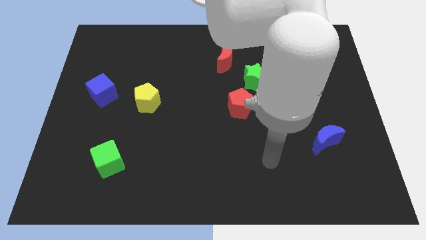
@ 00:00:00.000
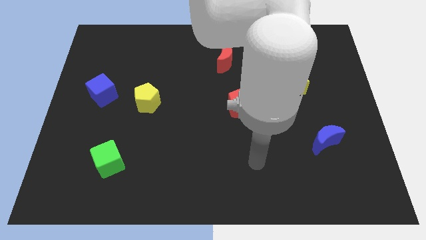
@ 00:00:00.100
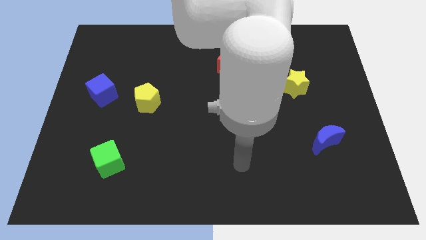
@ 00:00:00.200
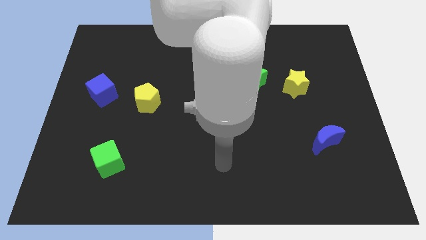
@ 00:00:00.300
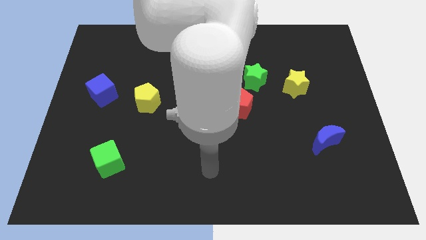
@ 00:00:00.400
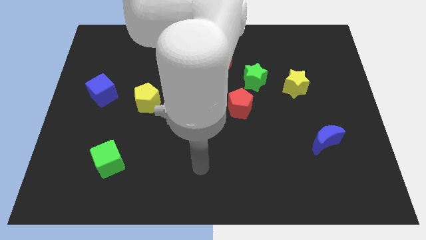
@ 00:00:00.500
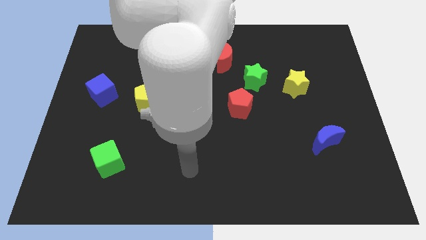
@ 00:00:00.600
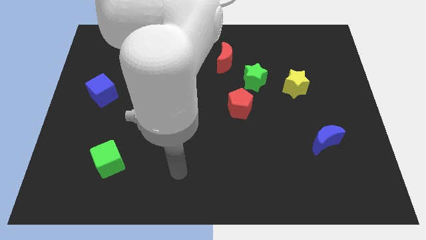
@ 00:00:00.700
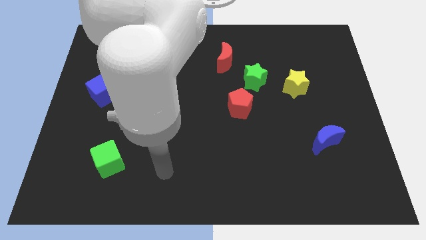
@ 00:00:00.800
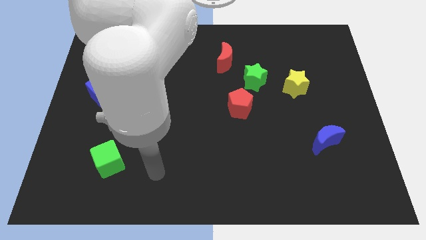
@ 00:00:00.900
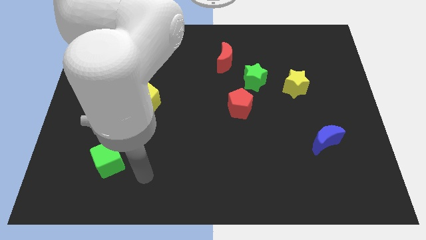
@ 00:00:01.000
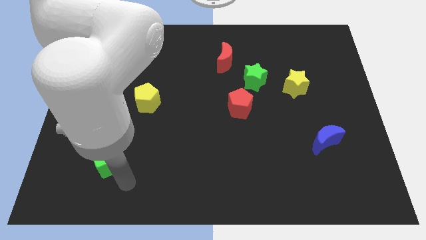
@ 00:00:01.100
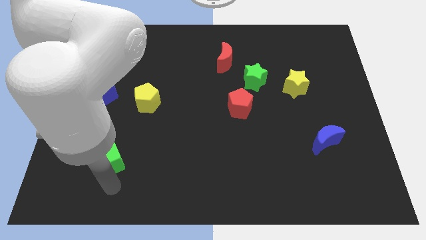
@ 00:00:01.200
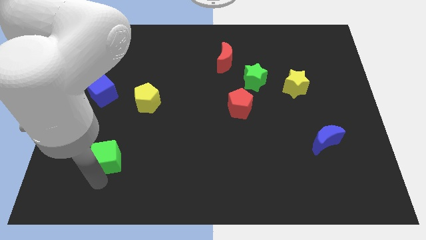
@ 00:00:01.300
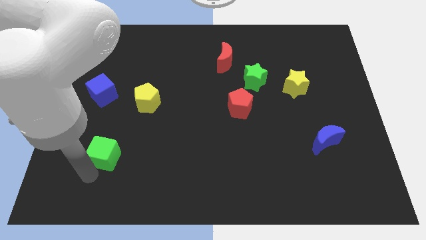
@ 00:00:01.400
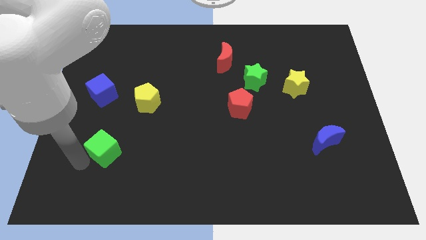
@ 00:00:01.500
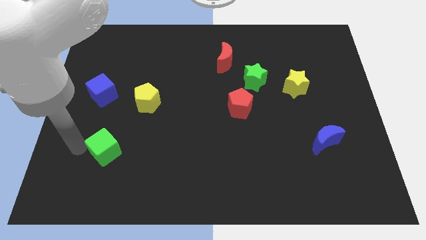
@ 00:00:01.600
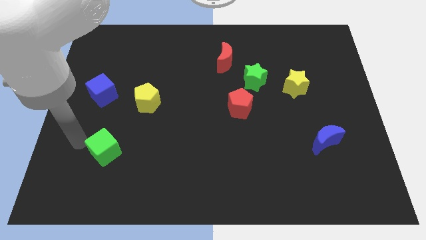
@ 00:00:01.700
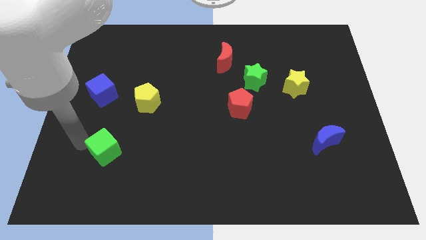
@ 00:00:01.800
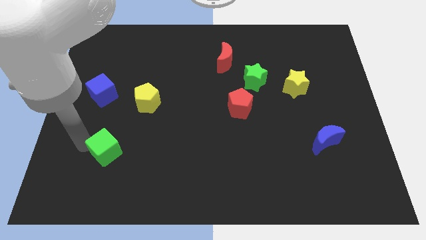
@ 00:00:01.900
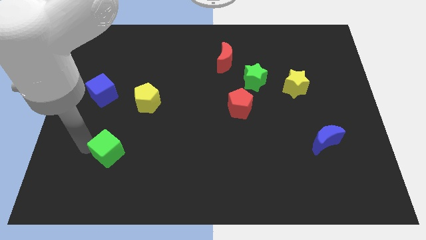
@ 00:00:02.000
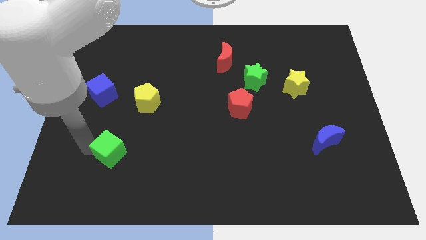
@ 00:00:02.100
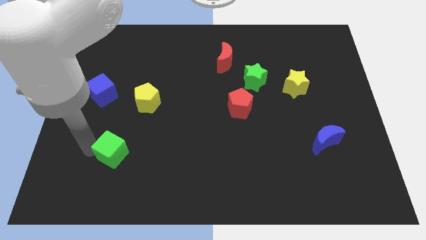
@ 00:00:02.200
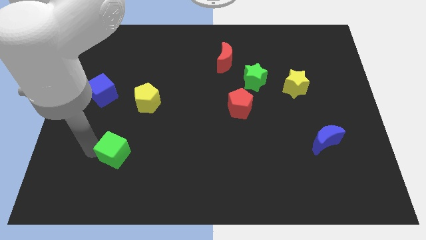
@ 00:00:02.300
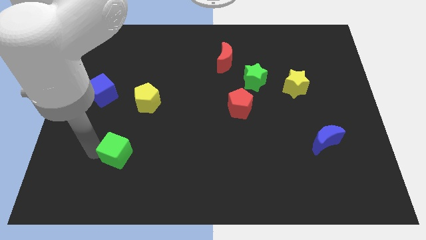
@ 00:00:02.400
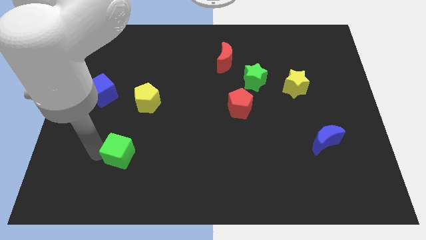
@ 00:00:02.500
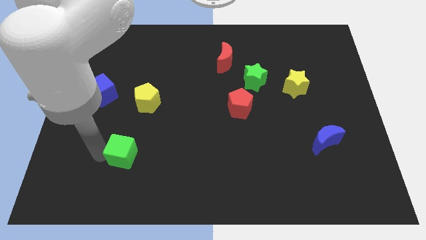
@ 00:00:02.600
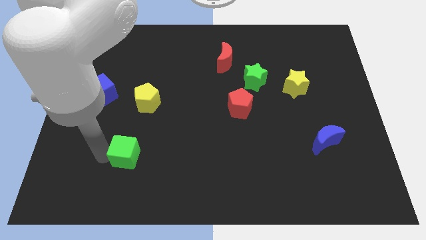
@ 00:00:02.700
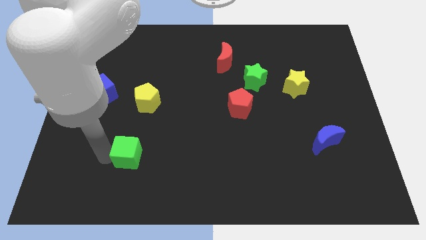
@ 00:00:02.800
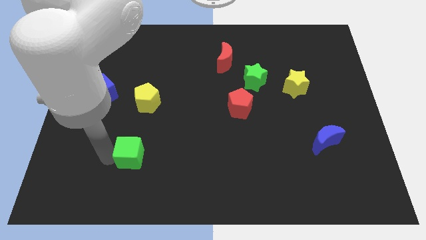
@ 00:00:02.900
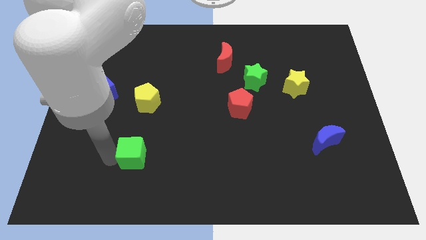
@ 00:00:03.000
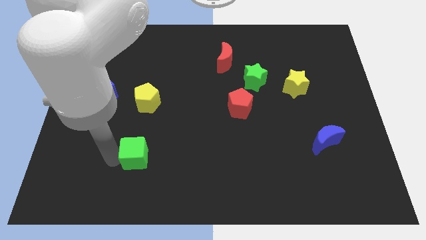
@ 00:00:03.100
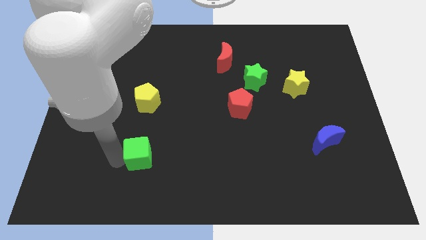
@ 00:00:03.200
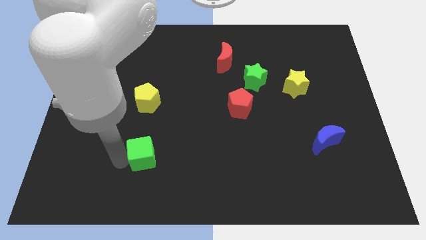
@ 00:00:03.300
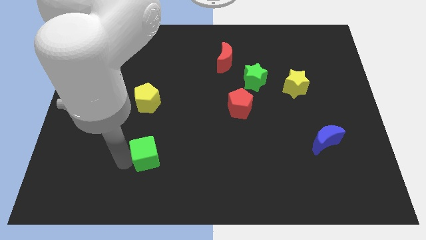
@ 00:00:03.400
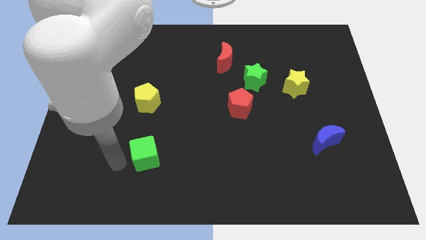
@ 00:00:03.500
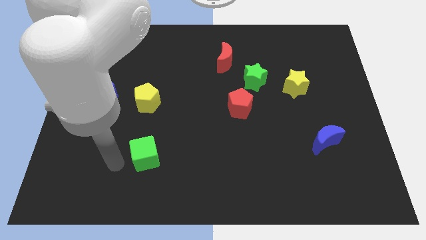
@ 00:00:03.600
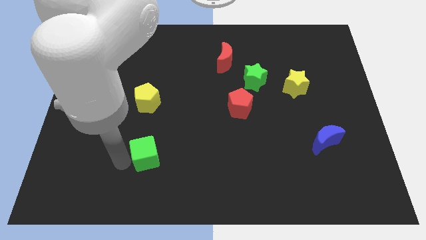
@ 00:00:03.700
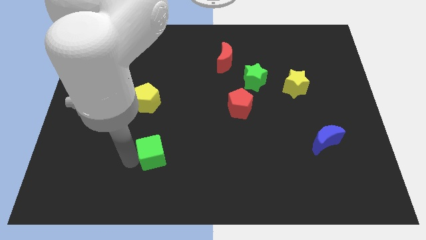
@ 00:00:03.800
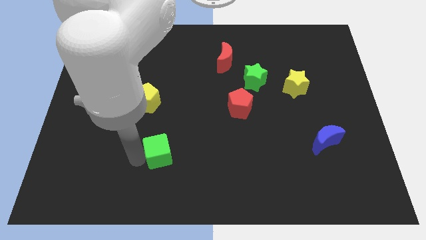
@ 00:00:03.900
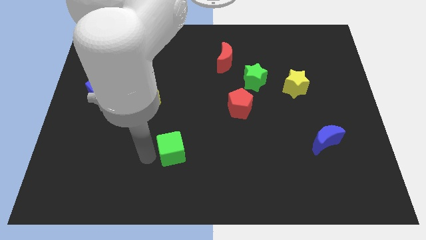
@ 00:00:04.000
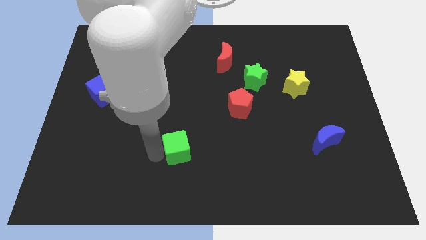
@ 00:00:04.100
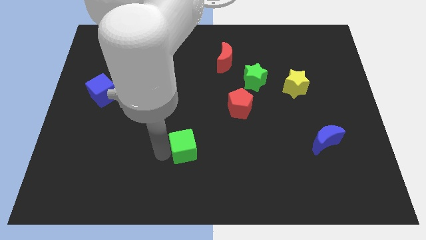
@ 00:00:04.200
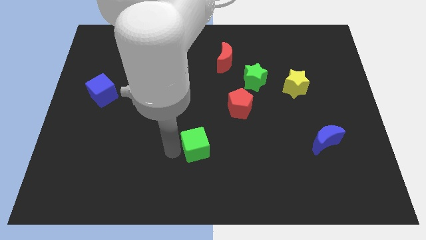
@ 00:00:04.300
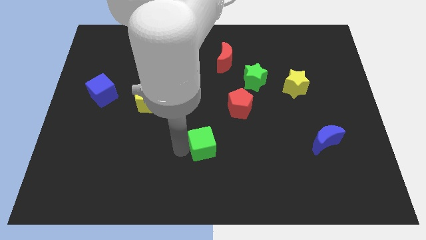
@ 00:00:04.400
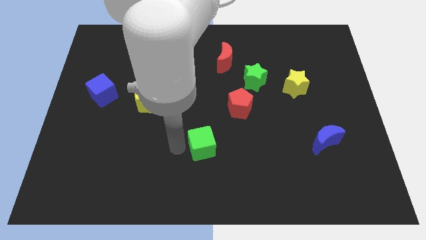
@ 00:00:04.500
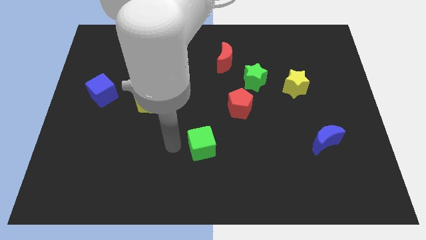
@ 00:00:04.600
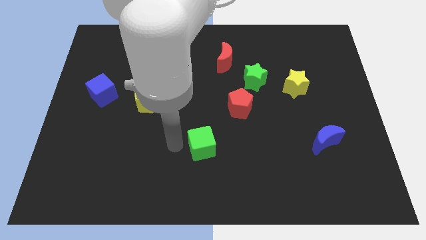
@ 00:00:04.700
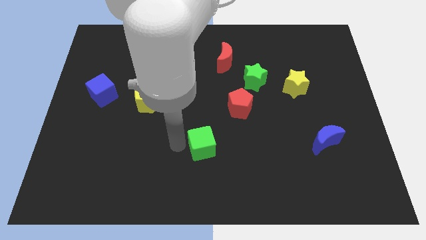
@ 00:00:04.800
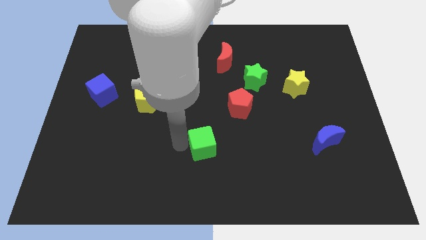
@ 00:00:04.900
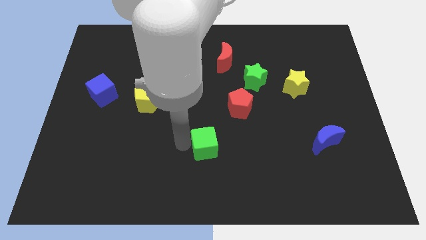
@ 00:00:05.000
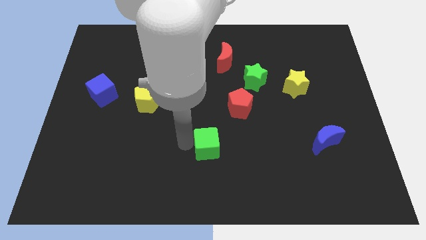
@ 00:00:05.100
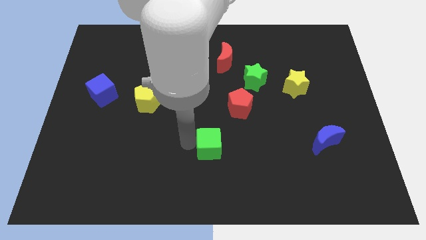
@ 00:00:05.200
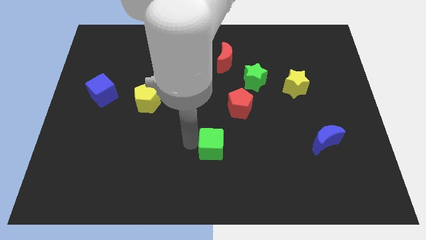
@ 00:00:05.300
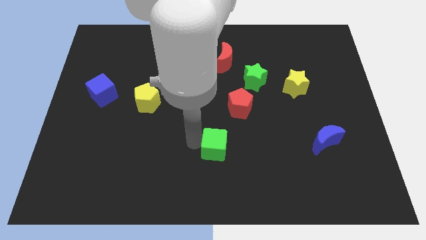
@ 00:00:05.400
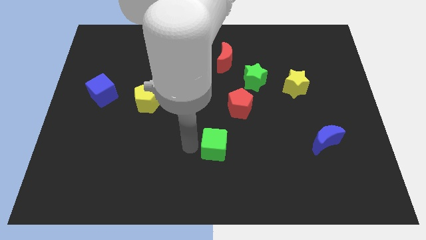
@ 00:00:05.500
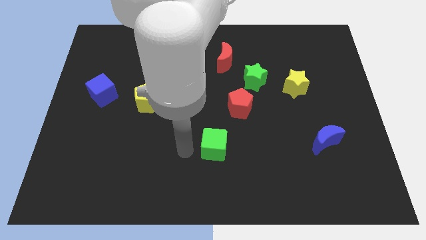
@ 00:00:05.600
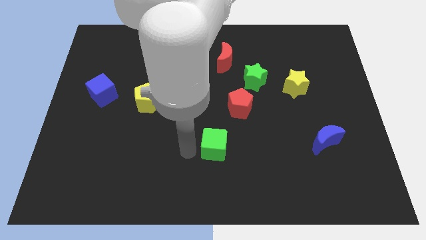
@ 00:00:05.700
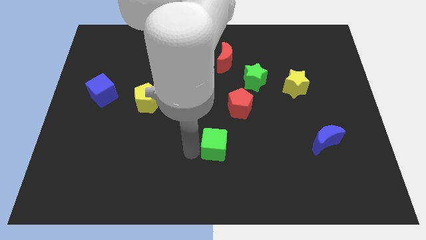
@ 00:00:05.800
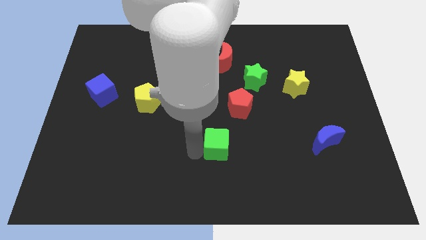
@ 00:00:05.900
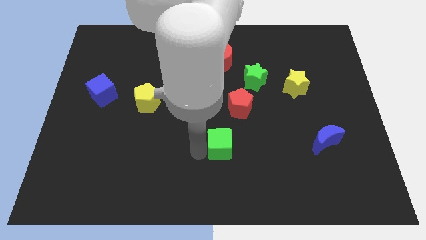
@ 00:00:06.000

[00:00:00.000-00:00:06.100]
move the green cube to the bottom side of the red pentagon

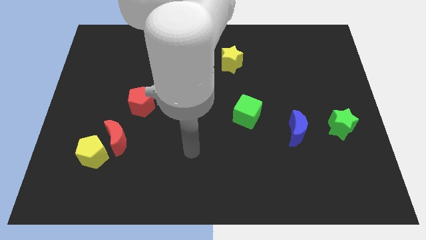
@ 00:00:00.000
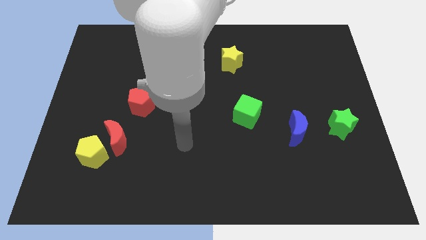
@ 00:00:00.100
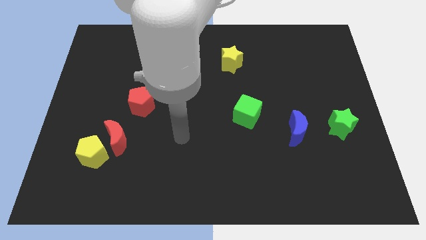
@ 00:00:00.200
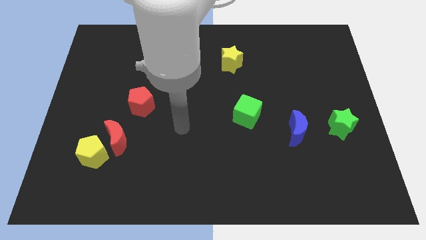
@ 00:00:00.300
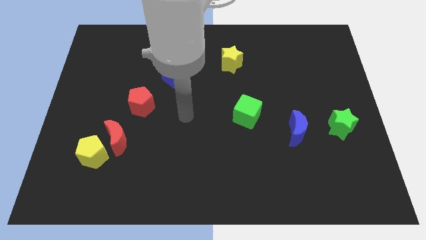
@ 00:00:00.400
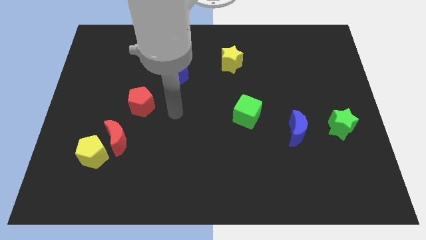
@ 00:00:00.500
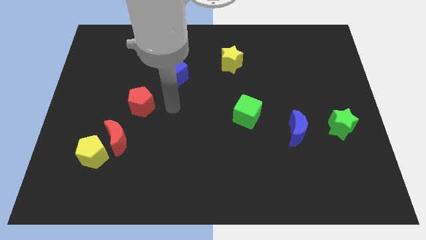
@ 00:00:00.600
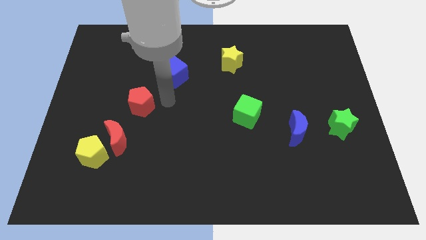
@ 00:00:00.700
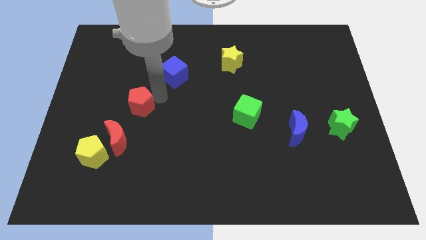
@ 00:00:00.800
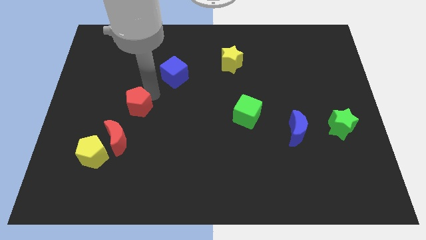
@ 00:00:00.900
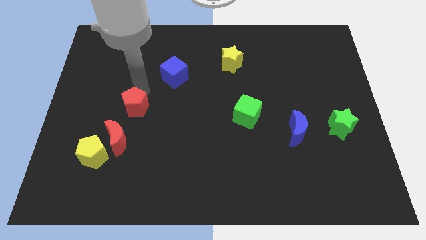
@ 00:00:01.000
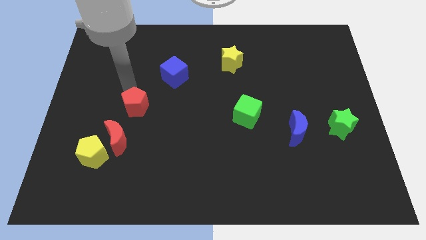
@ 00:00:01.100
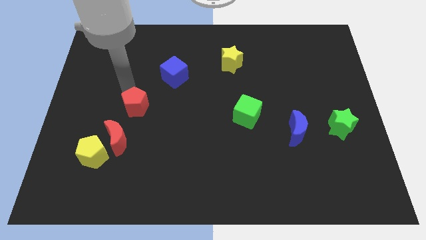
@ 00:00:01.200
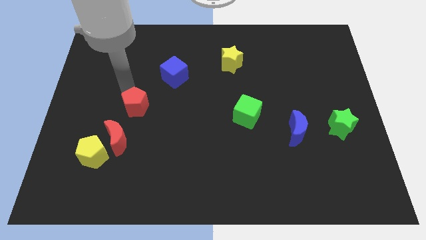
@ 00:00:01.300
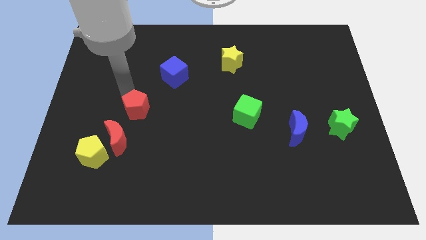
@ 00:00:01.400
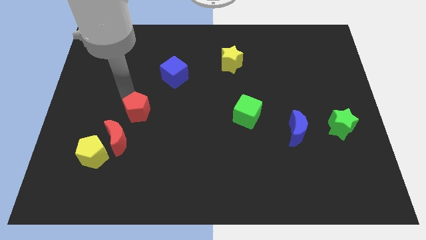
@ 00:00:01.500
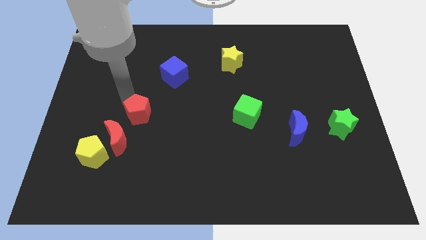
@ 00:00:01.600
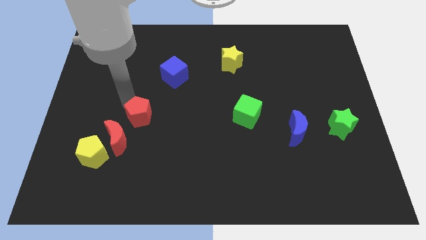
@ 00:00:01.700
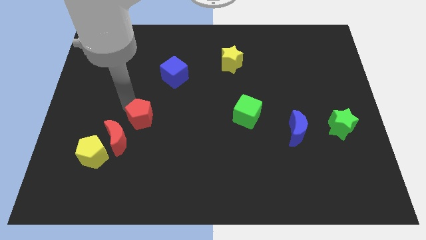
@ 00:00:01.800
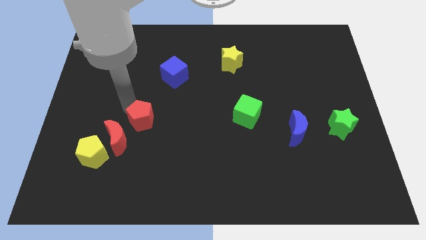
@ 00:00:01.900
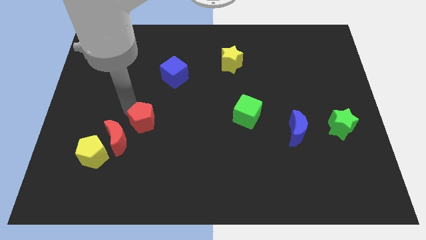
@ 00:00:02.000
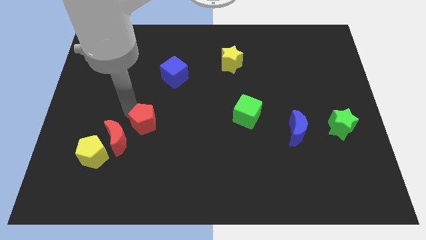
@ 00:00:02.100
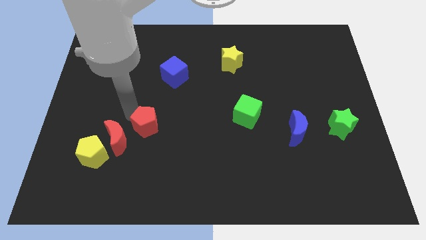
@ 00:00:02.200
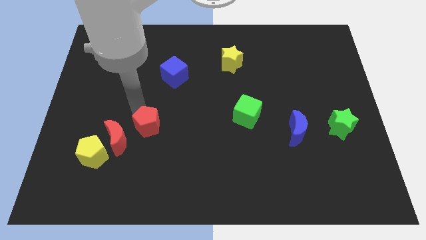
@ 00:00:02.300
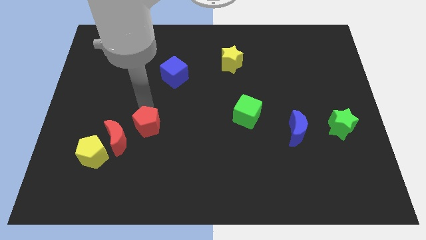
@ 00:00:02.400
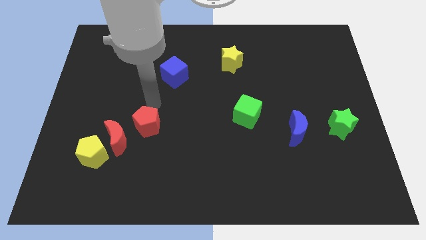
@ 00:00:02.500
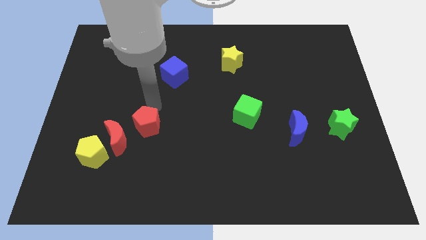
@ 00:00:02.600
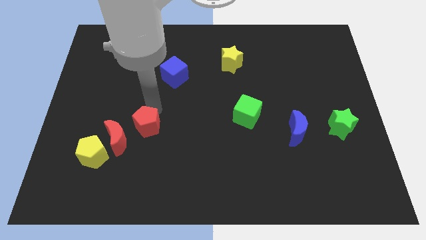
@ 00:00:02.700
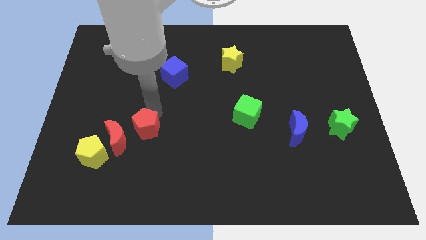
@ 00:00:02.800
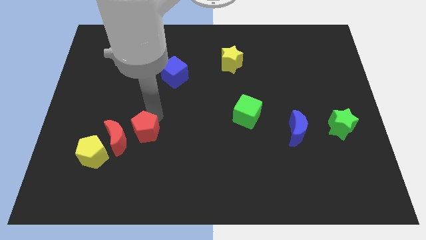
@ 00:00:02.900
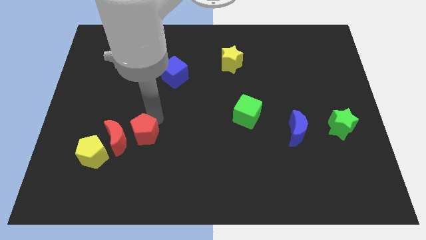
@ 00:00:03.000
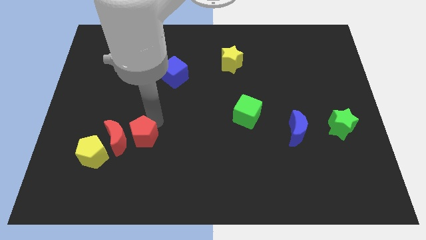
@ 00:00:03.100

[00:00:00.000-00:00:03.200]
slide the red pentagon to the bottom right side of the red moon
